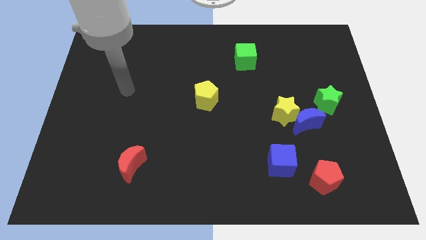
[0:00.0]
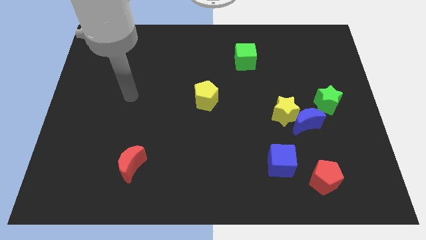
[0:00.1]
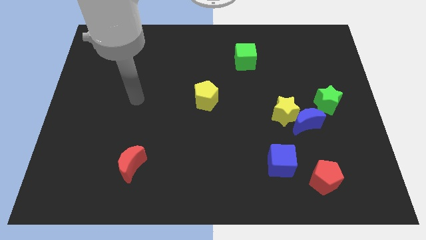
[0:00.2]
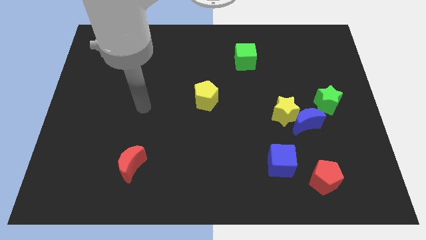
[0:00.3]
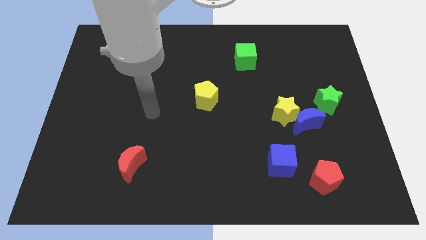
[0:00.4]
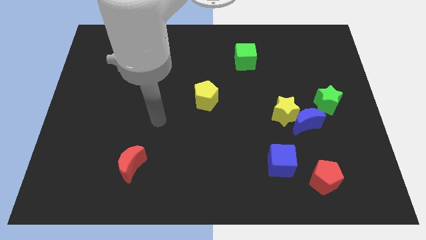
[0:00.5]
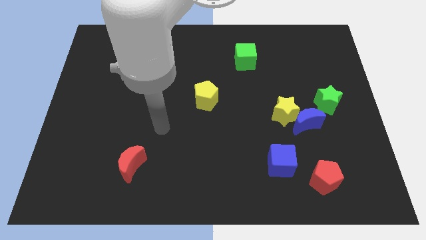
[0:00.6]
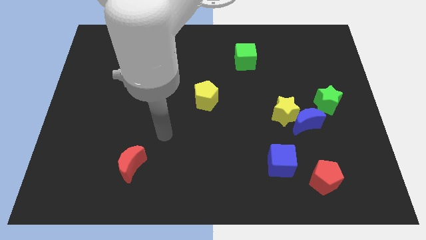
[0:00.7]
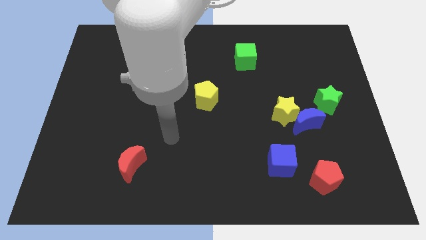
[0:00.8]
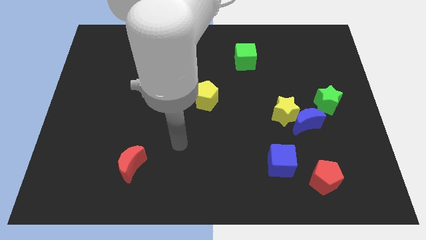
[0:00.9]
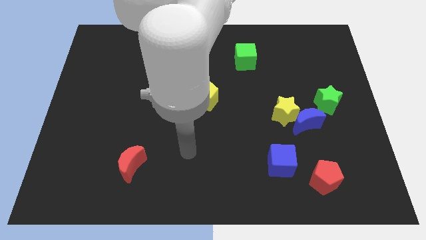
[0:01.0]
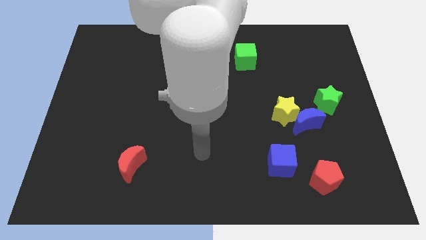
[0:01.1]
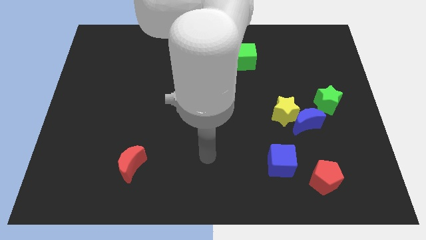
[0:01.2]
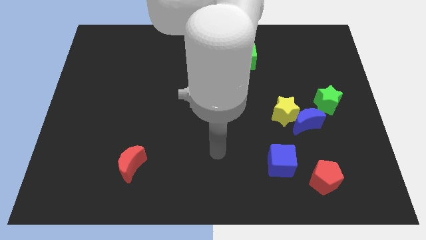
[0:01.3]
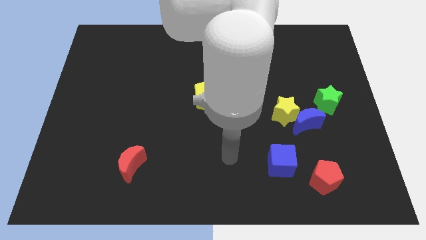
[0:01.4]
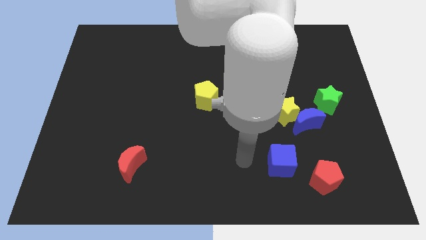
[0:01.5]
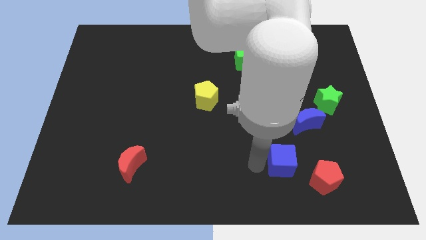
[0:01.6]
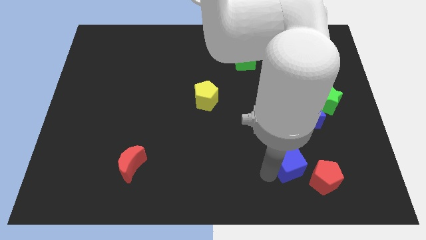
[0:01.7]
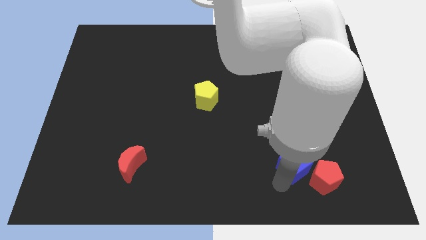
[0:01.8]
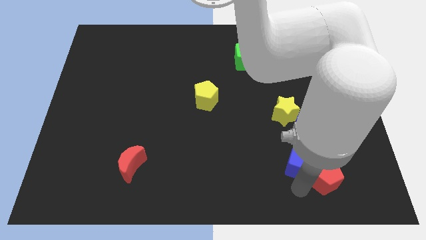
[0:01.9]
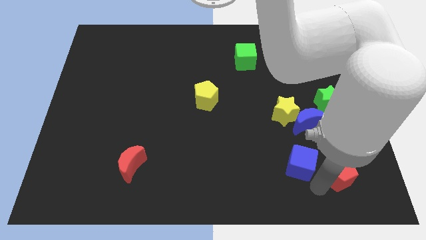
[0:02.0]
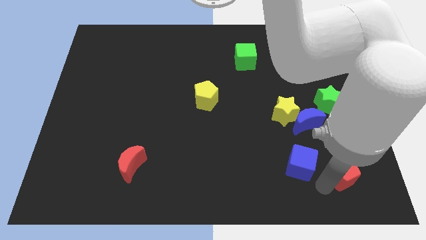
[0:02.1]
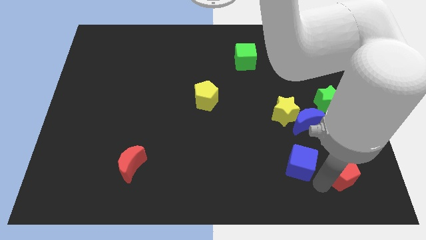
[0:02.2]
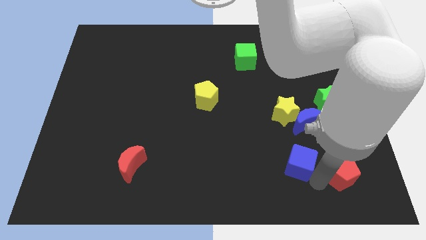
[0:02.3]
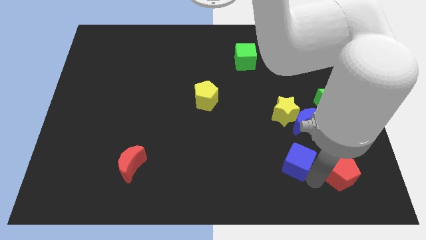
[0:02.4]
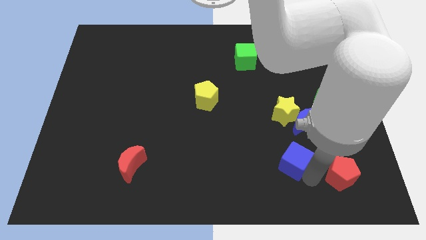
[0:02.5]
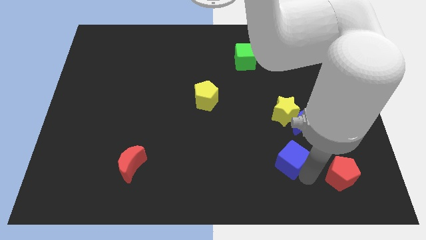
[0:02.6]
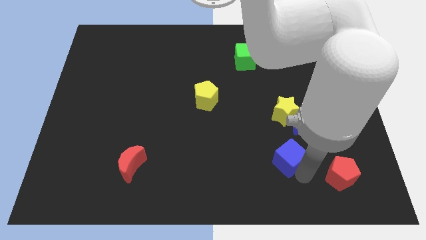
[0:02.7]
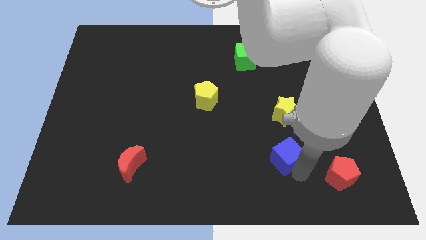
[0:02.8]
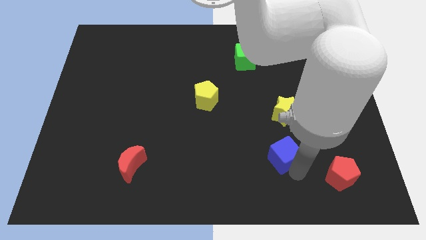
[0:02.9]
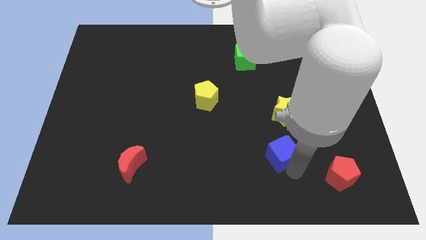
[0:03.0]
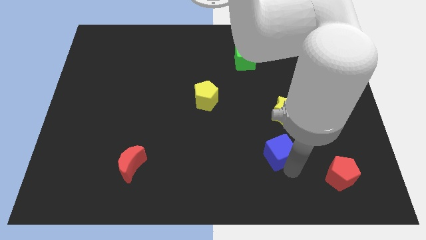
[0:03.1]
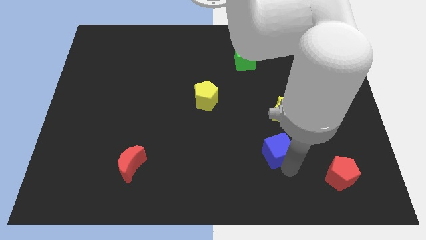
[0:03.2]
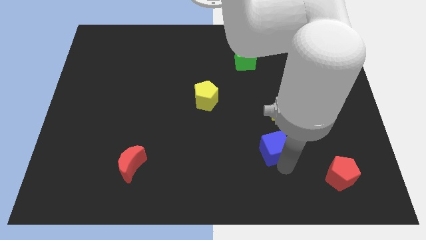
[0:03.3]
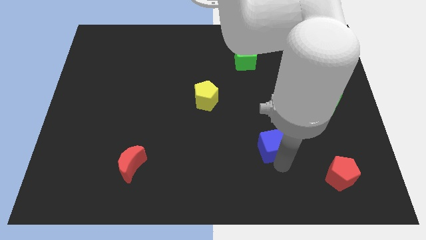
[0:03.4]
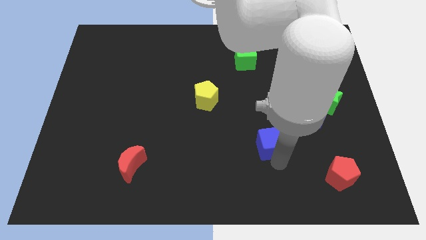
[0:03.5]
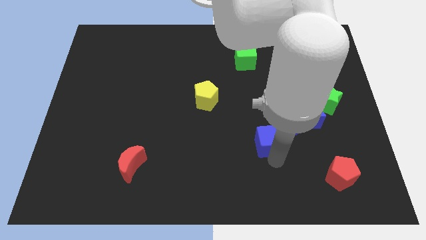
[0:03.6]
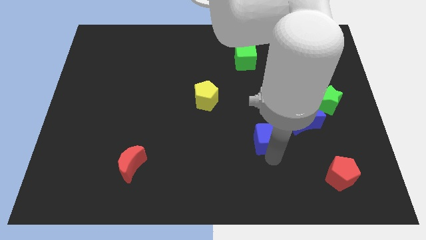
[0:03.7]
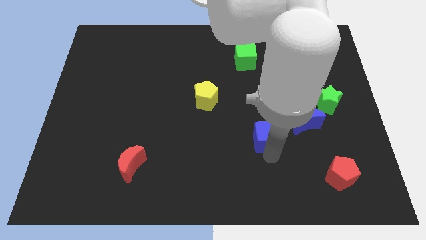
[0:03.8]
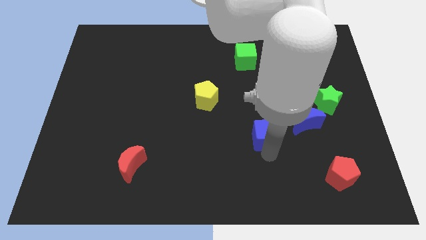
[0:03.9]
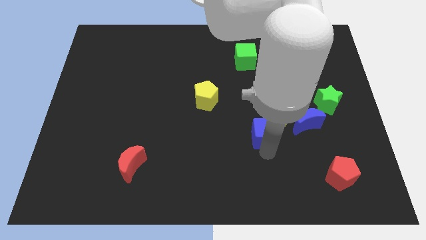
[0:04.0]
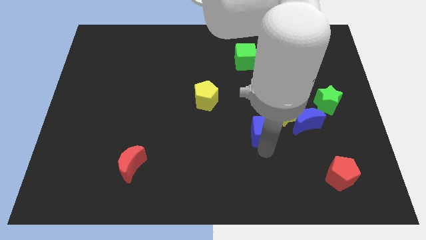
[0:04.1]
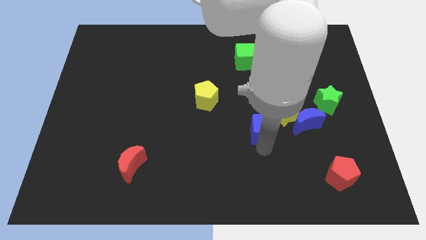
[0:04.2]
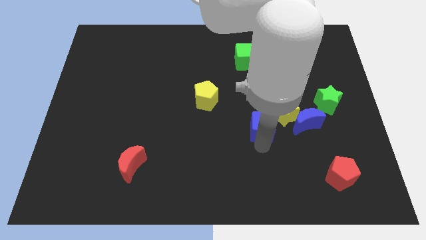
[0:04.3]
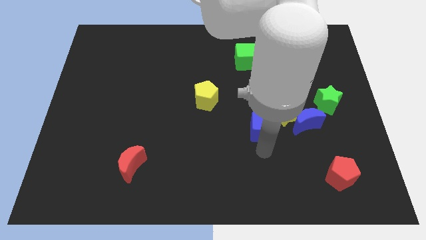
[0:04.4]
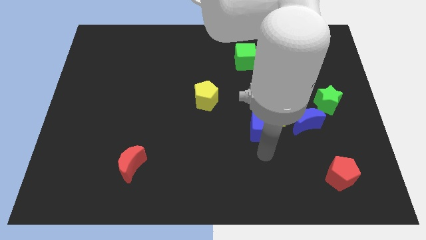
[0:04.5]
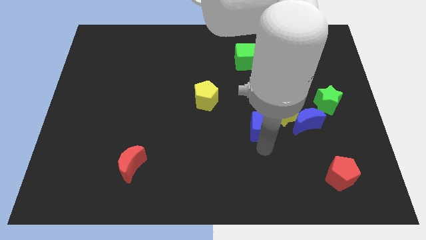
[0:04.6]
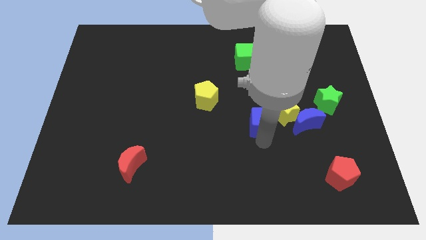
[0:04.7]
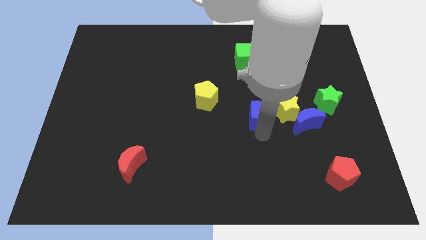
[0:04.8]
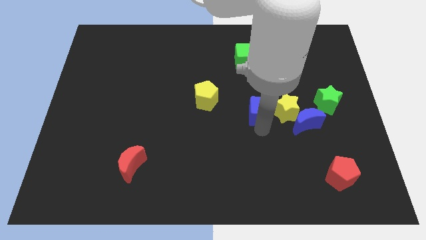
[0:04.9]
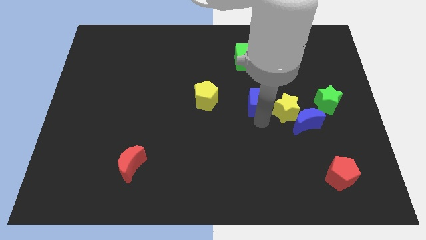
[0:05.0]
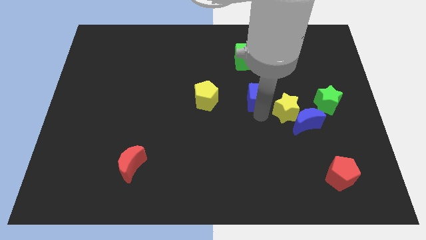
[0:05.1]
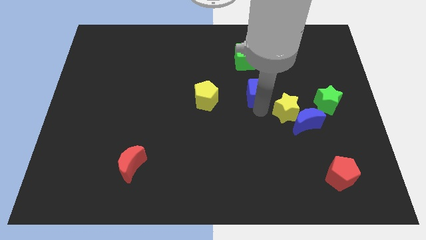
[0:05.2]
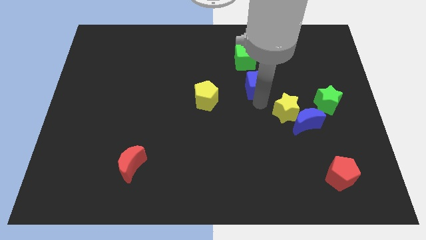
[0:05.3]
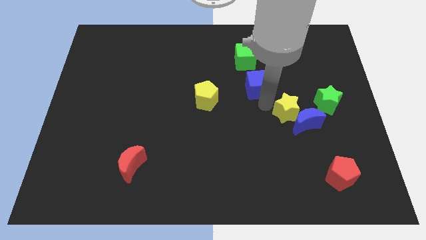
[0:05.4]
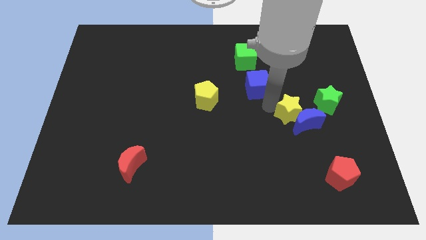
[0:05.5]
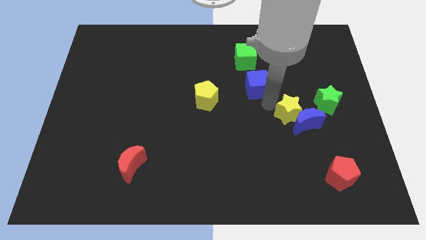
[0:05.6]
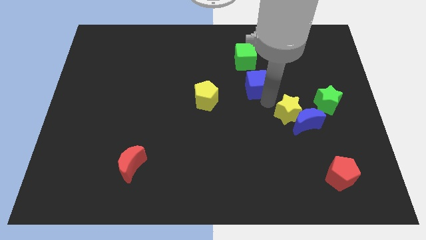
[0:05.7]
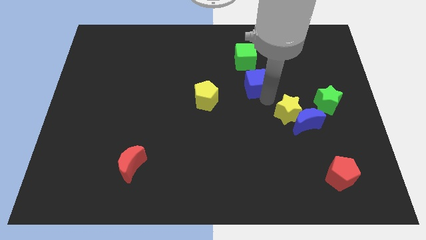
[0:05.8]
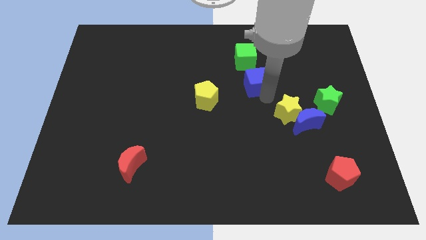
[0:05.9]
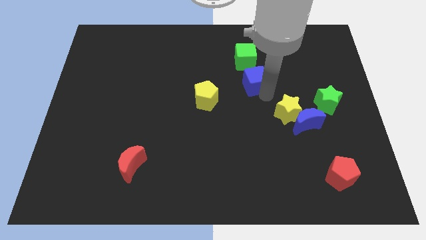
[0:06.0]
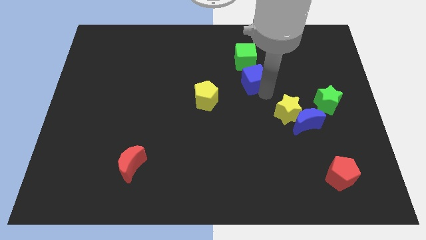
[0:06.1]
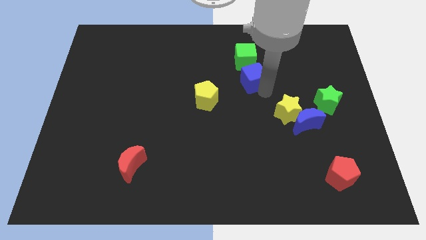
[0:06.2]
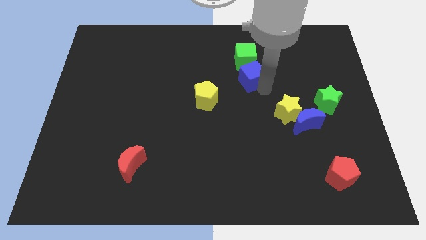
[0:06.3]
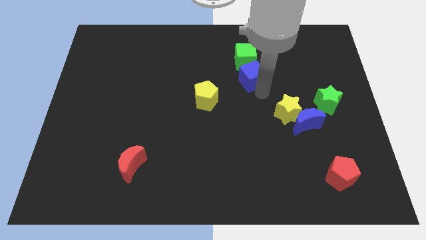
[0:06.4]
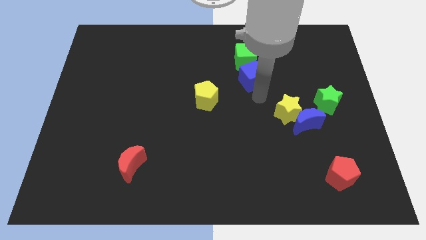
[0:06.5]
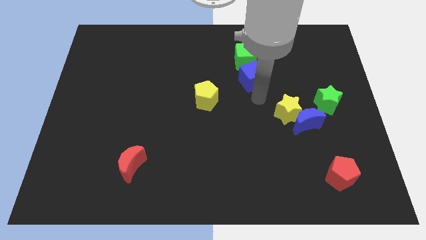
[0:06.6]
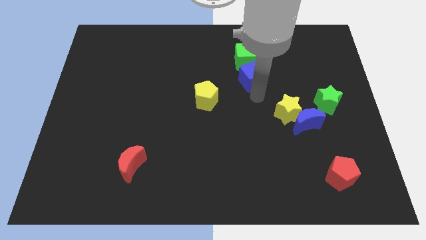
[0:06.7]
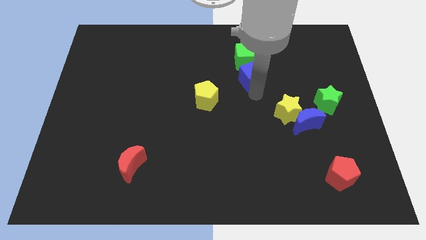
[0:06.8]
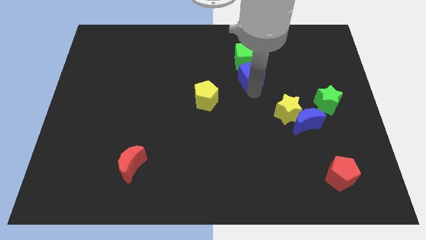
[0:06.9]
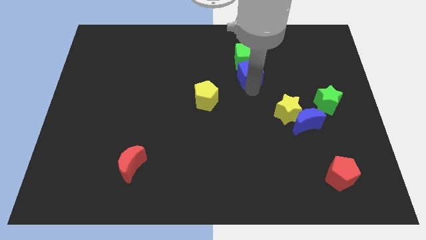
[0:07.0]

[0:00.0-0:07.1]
put the blue cube close to the green cube
